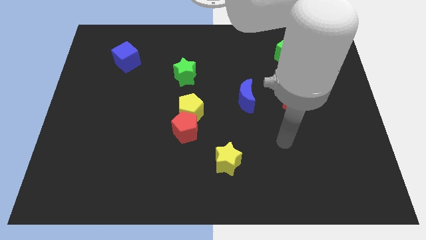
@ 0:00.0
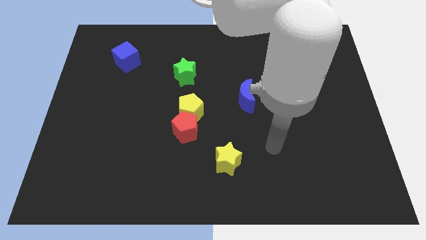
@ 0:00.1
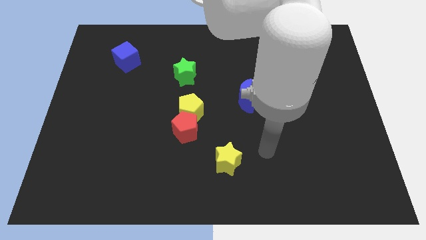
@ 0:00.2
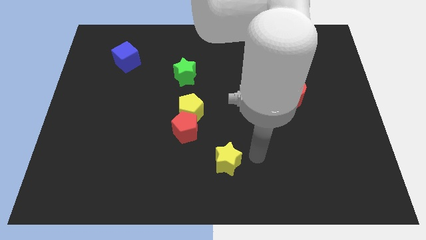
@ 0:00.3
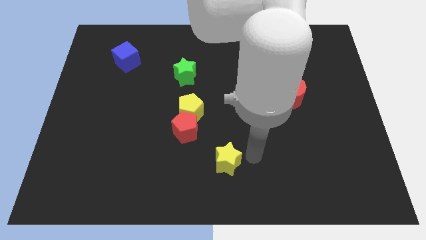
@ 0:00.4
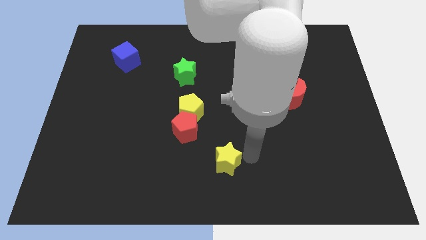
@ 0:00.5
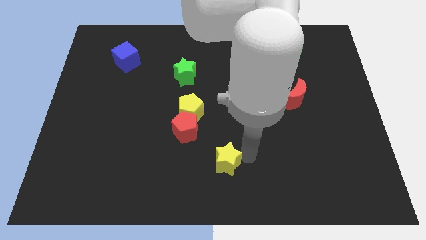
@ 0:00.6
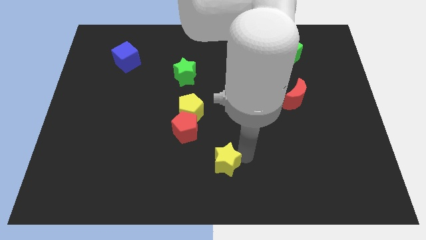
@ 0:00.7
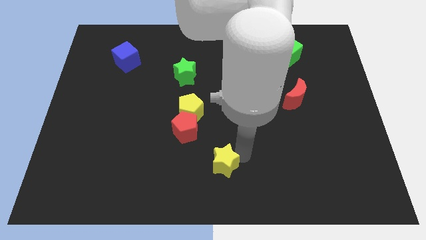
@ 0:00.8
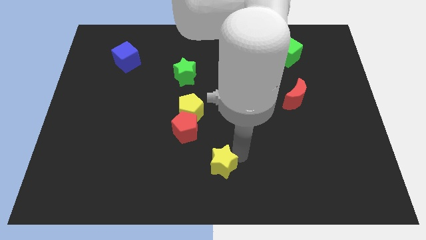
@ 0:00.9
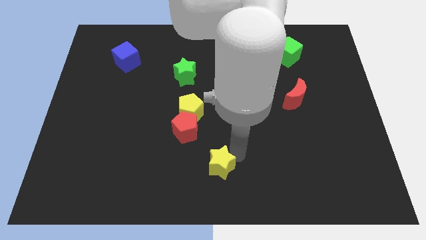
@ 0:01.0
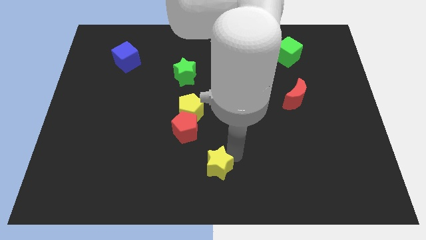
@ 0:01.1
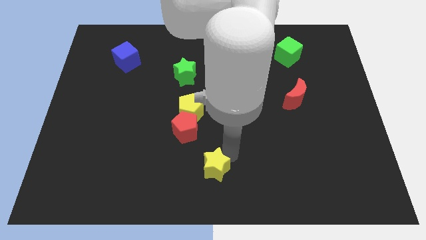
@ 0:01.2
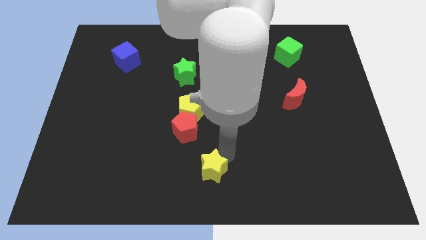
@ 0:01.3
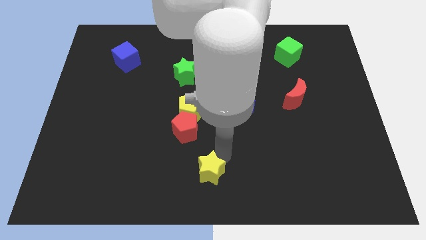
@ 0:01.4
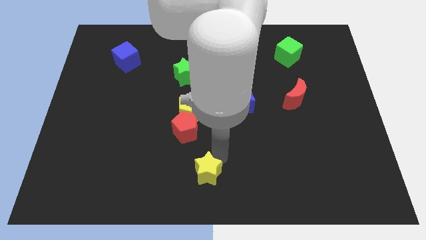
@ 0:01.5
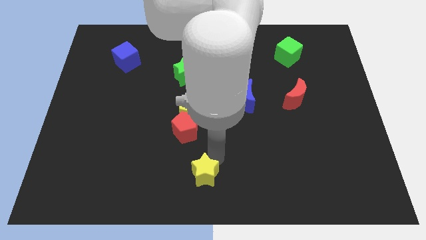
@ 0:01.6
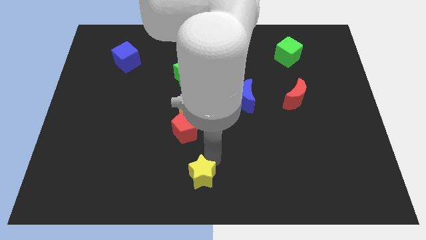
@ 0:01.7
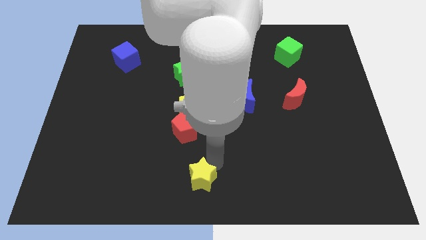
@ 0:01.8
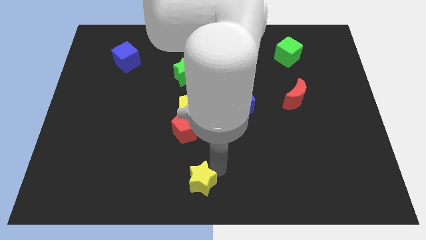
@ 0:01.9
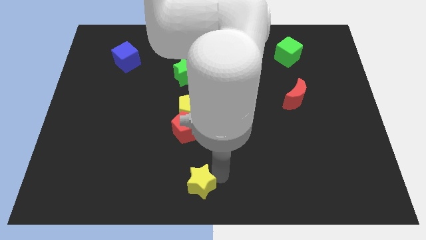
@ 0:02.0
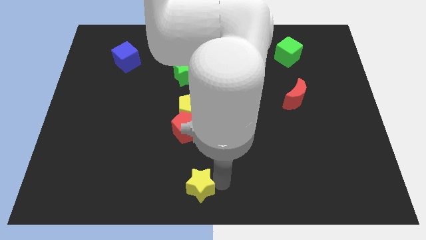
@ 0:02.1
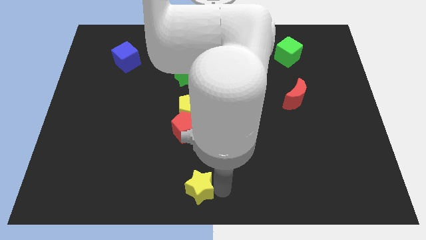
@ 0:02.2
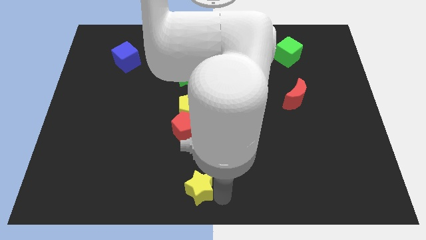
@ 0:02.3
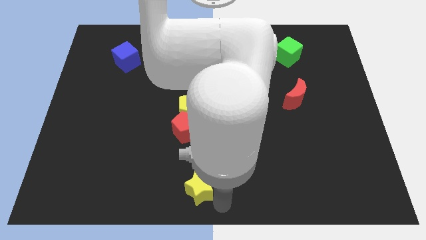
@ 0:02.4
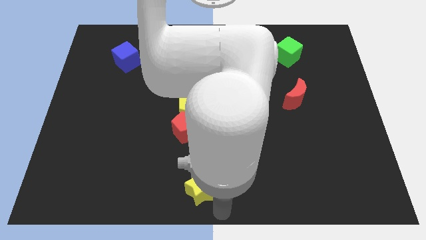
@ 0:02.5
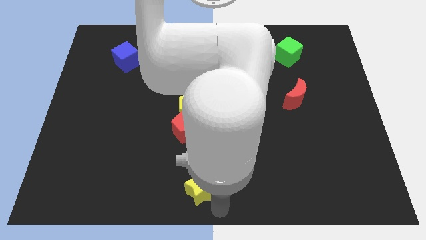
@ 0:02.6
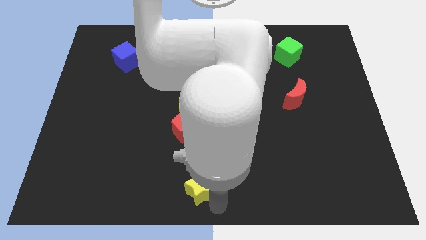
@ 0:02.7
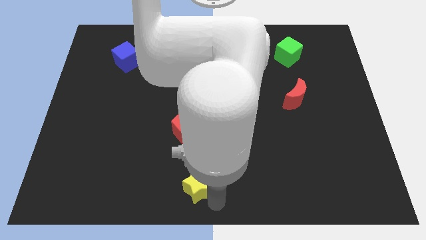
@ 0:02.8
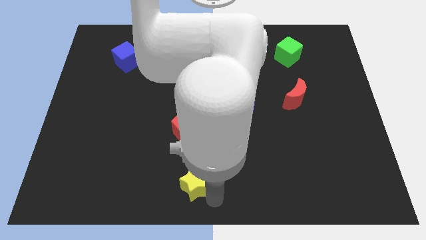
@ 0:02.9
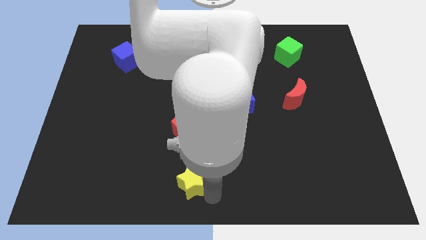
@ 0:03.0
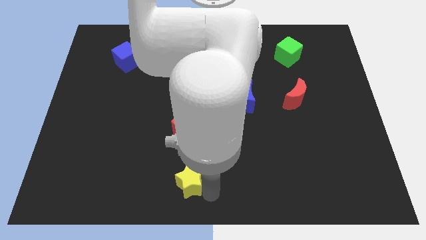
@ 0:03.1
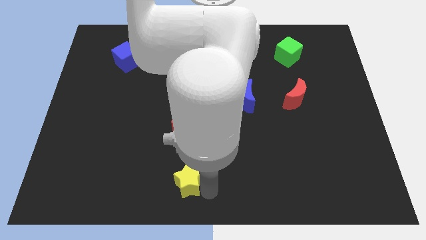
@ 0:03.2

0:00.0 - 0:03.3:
slightly slide the yellow star to the left

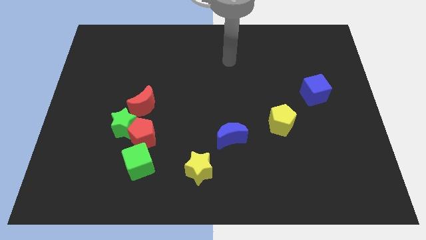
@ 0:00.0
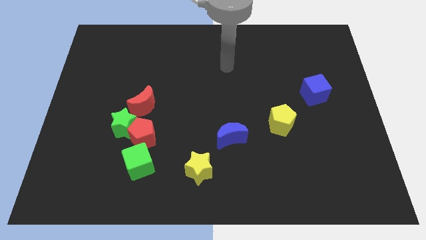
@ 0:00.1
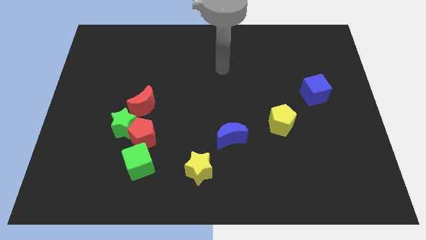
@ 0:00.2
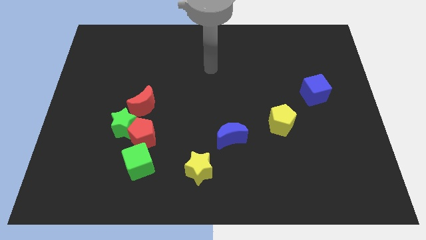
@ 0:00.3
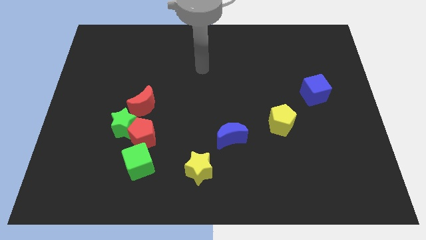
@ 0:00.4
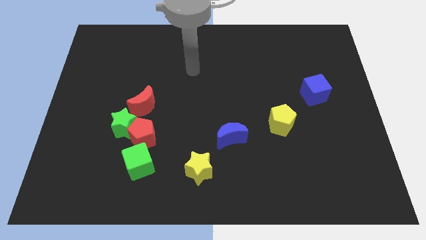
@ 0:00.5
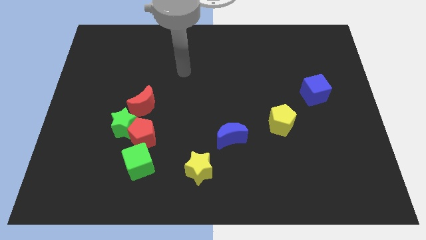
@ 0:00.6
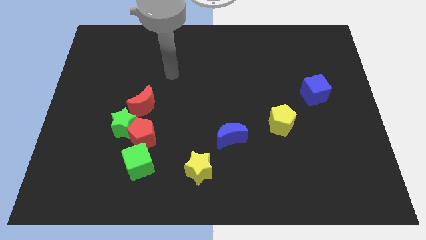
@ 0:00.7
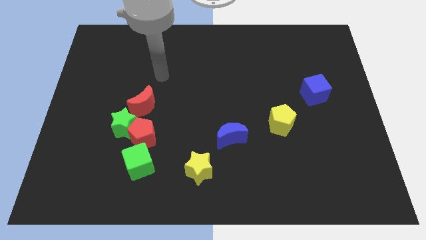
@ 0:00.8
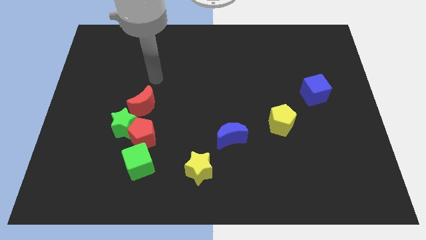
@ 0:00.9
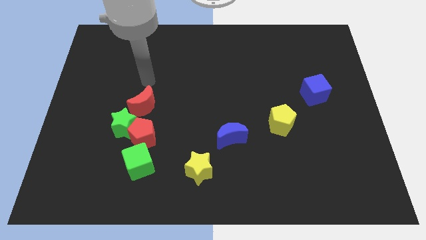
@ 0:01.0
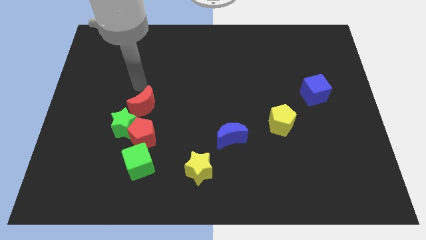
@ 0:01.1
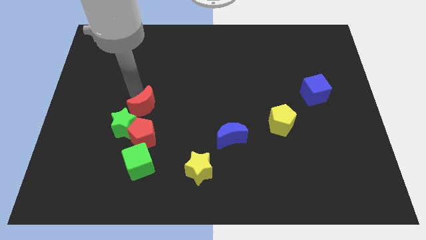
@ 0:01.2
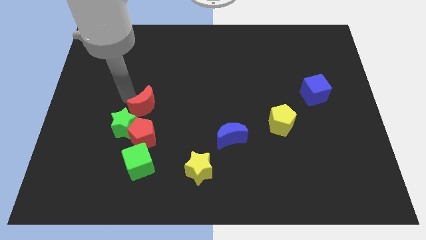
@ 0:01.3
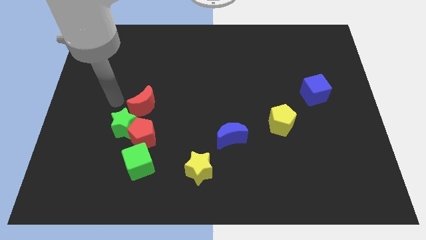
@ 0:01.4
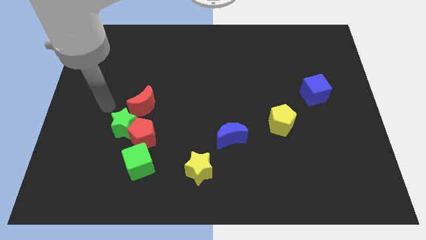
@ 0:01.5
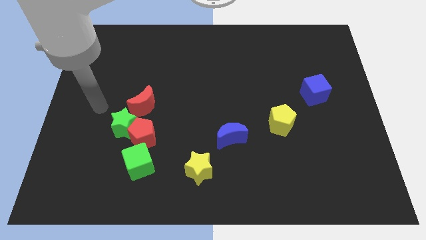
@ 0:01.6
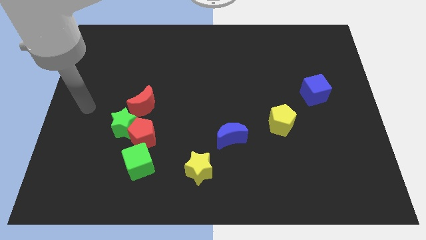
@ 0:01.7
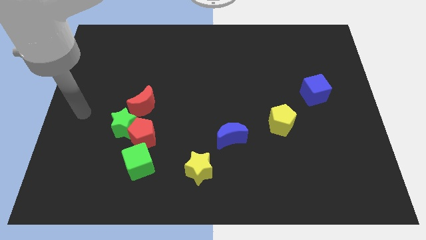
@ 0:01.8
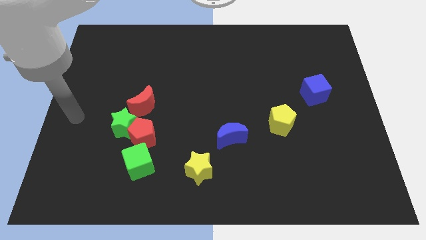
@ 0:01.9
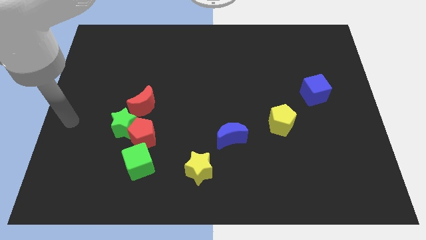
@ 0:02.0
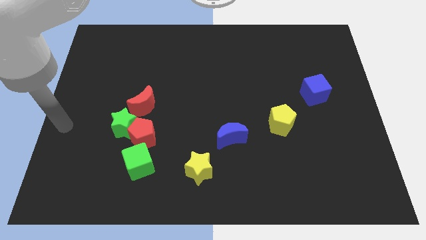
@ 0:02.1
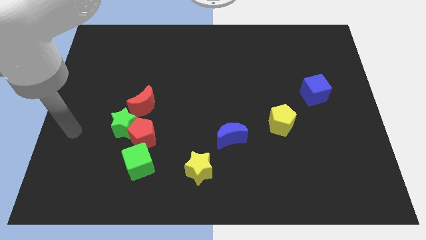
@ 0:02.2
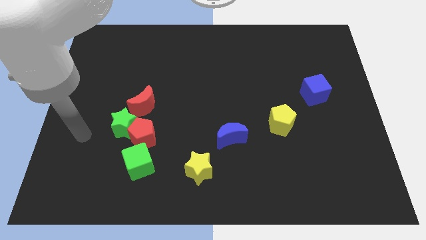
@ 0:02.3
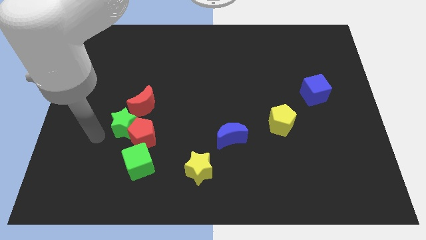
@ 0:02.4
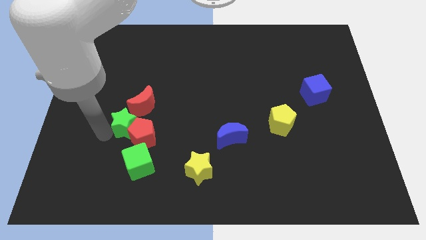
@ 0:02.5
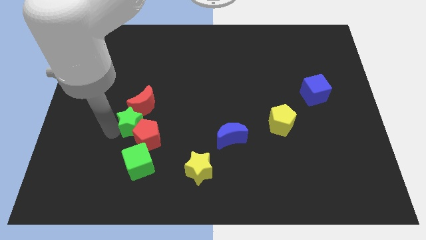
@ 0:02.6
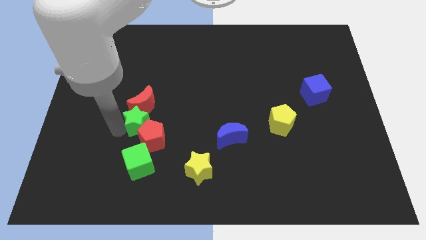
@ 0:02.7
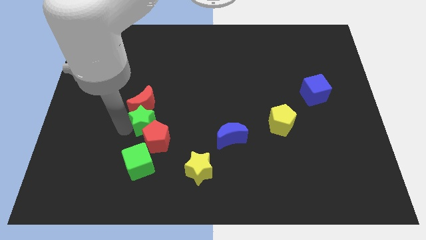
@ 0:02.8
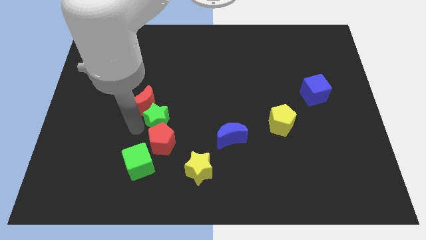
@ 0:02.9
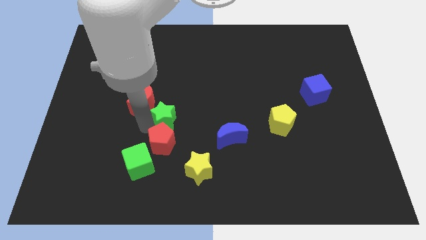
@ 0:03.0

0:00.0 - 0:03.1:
slide the green star a little up and then right

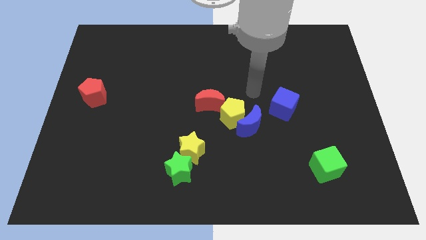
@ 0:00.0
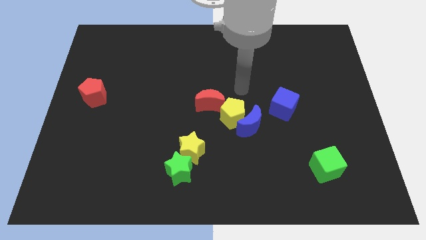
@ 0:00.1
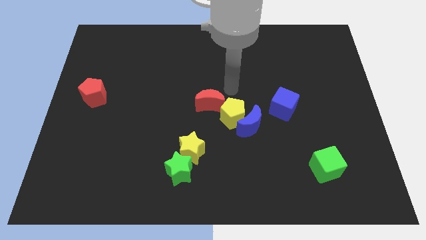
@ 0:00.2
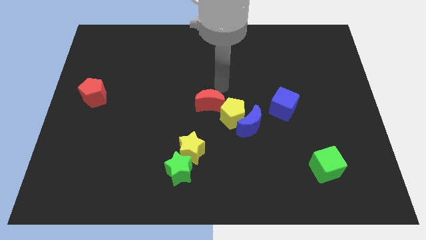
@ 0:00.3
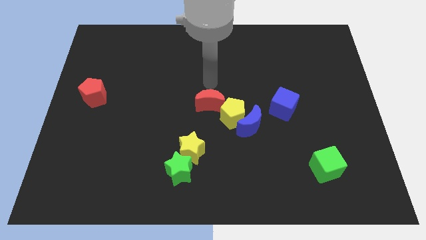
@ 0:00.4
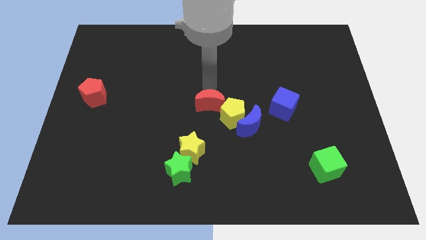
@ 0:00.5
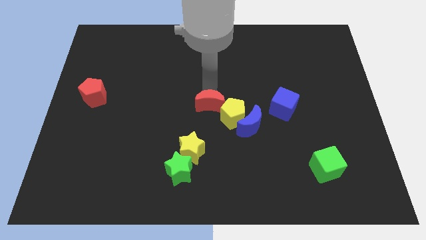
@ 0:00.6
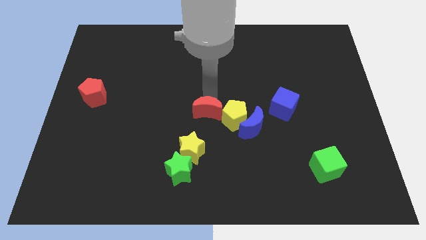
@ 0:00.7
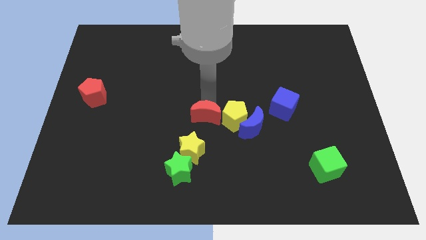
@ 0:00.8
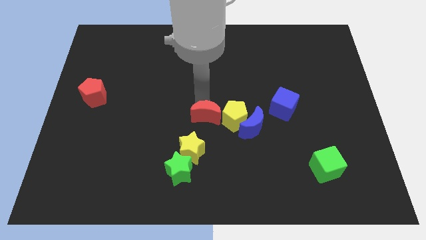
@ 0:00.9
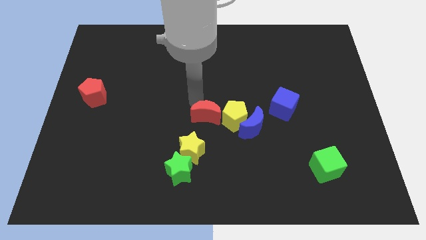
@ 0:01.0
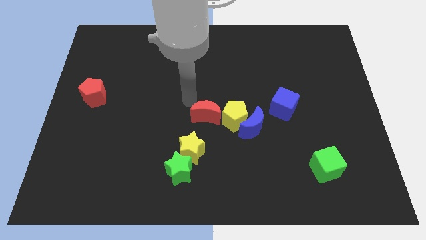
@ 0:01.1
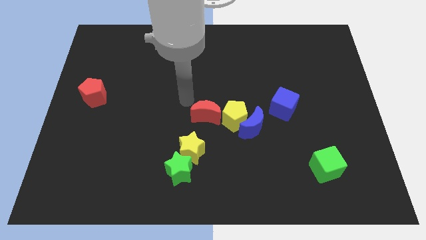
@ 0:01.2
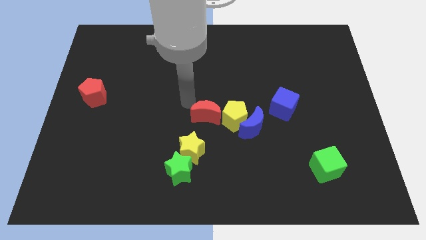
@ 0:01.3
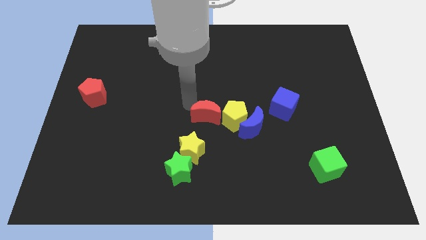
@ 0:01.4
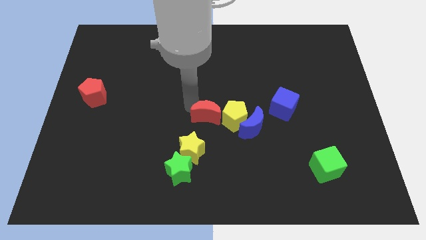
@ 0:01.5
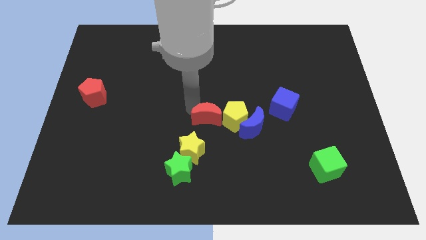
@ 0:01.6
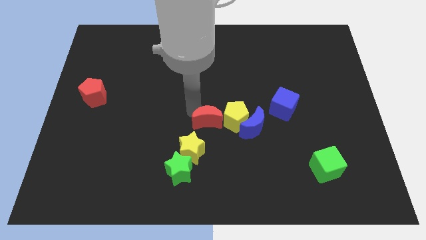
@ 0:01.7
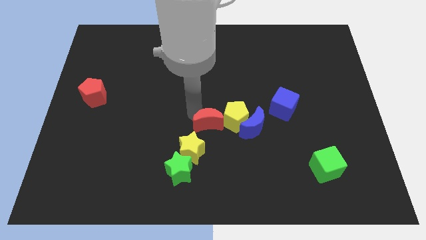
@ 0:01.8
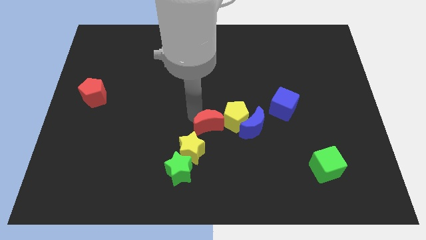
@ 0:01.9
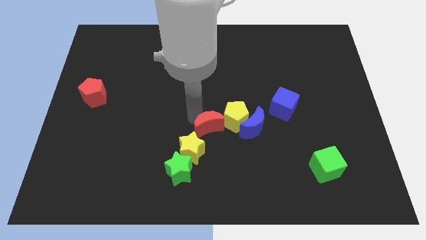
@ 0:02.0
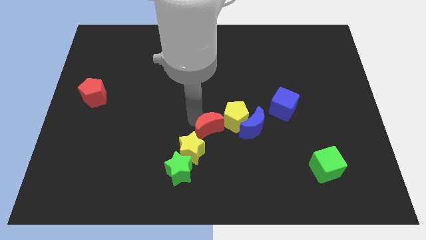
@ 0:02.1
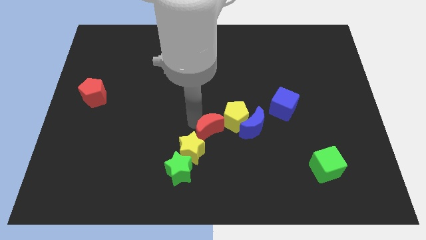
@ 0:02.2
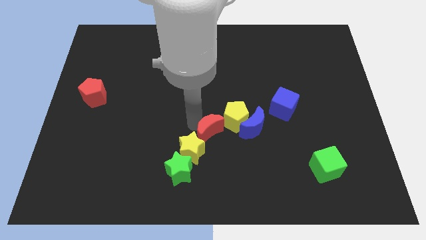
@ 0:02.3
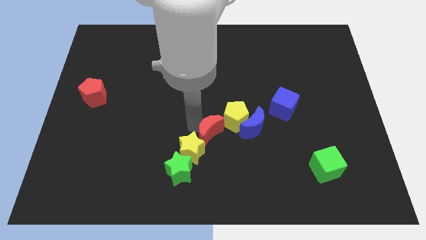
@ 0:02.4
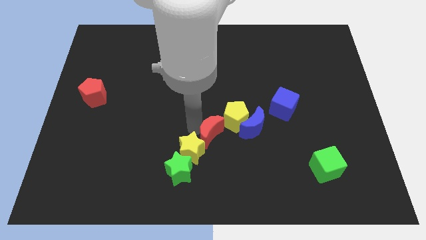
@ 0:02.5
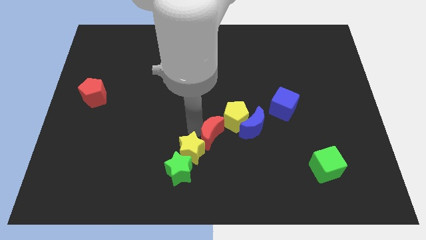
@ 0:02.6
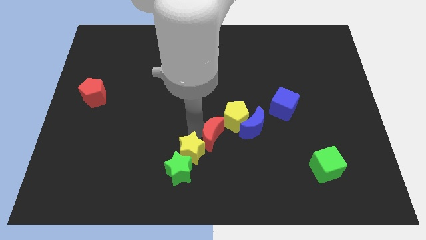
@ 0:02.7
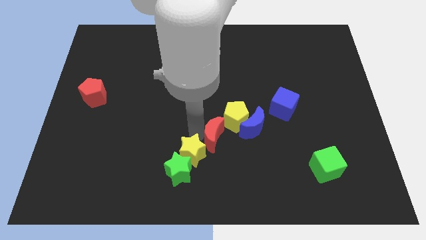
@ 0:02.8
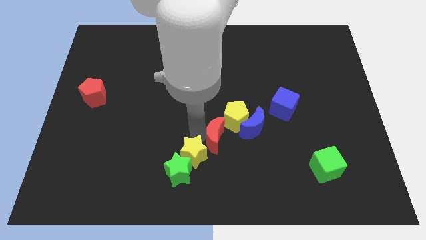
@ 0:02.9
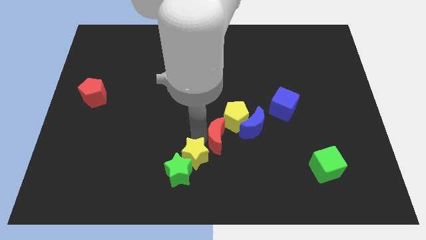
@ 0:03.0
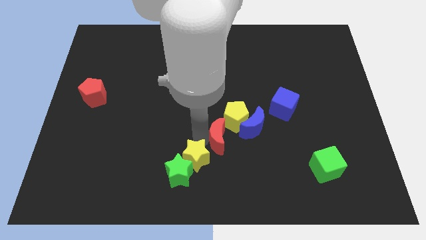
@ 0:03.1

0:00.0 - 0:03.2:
move the red moon downwards and to the right slightly
